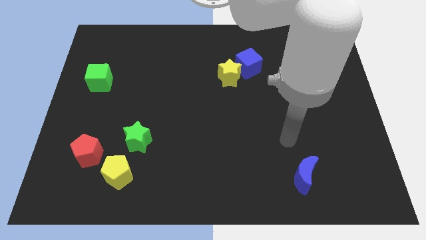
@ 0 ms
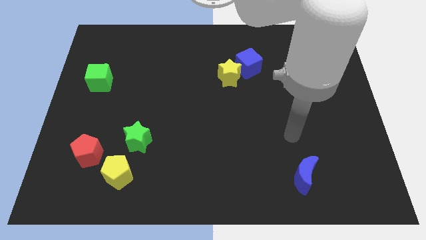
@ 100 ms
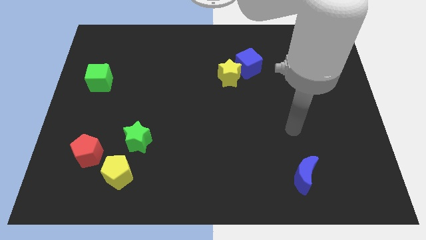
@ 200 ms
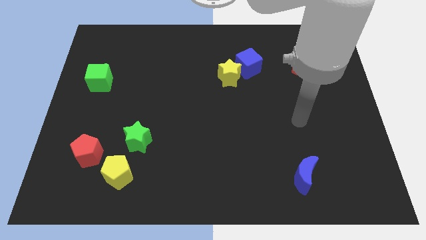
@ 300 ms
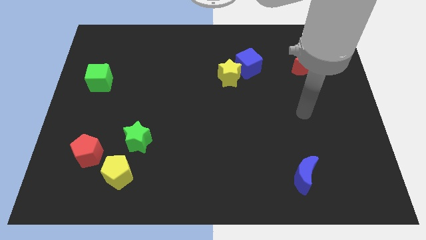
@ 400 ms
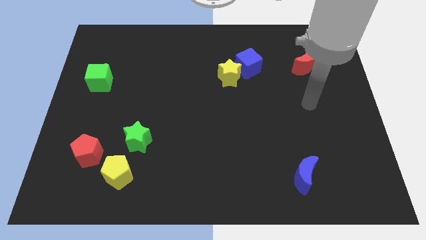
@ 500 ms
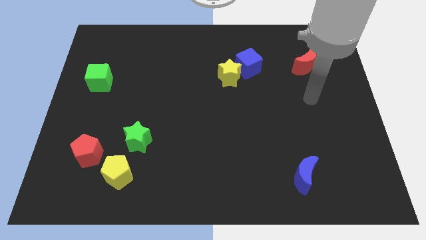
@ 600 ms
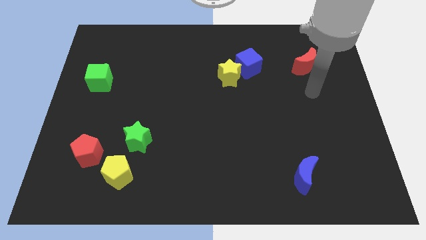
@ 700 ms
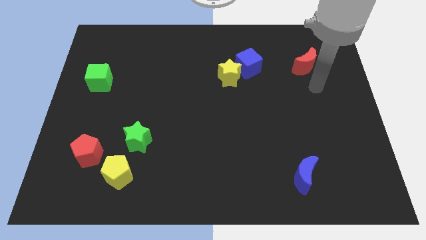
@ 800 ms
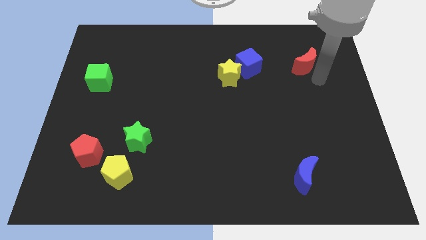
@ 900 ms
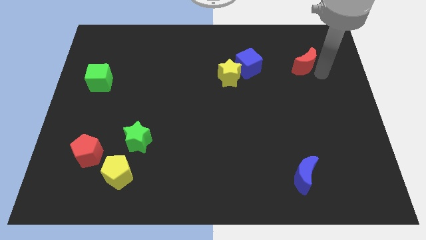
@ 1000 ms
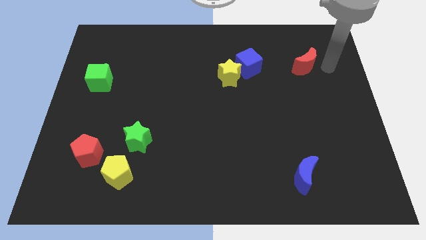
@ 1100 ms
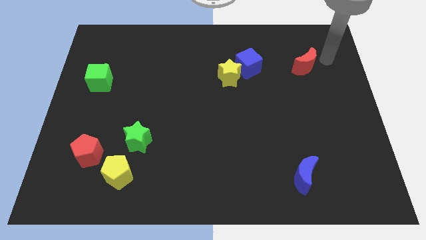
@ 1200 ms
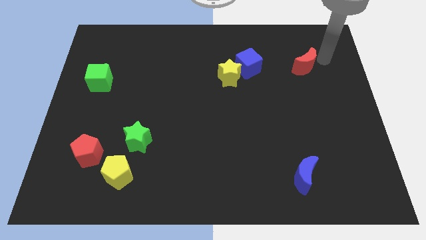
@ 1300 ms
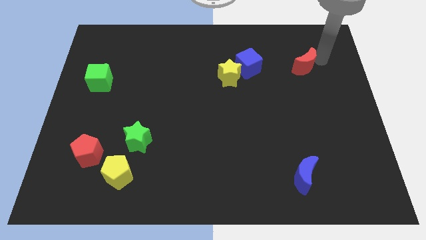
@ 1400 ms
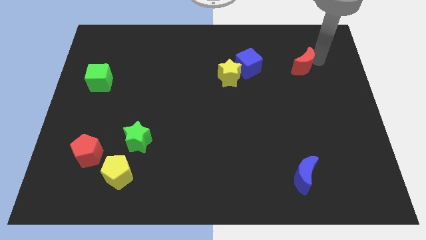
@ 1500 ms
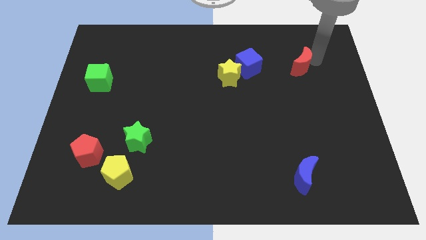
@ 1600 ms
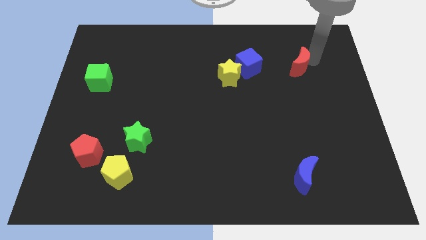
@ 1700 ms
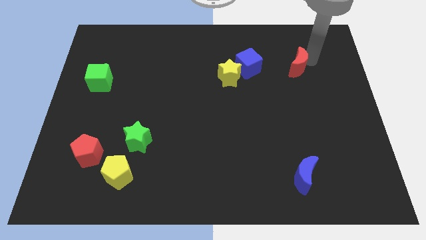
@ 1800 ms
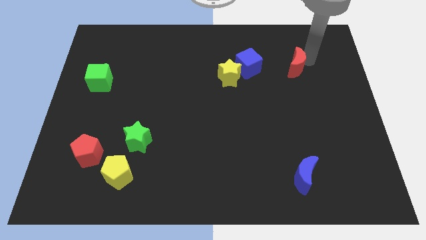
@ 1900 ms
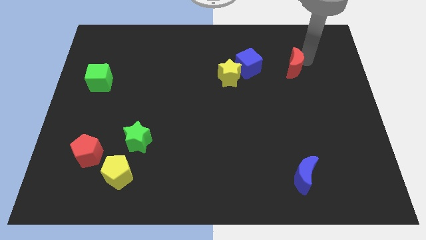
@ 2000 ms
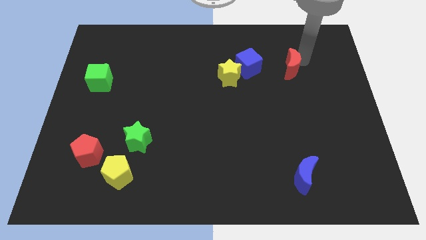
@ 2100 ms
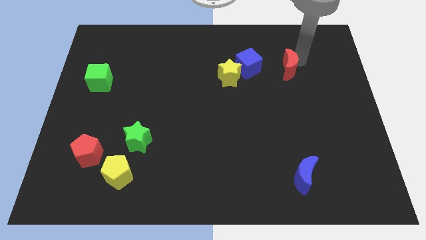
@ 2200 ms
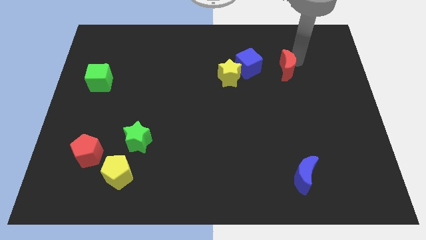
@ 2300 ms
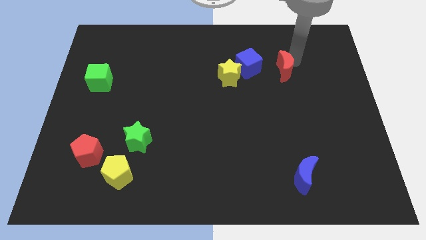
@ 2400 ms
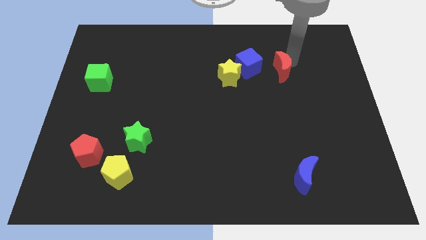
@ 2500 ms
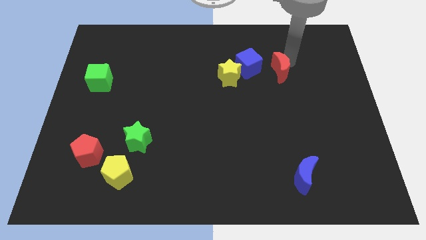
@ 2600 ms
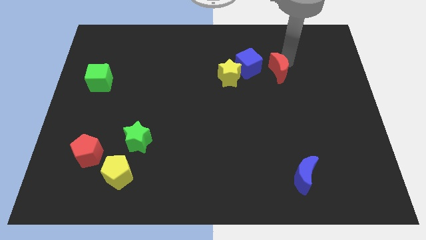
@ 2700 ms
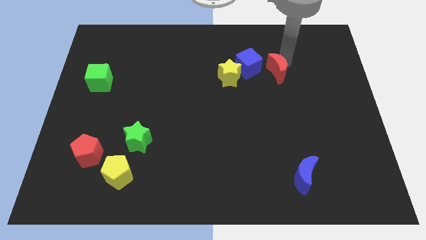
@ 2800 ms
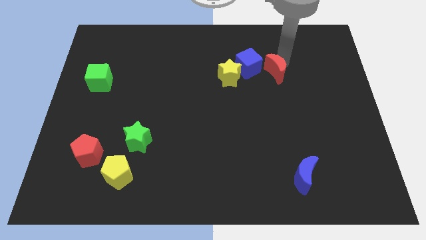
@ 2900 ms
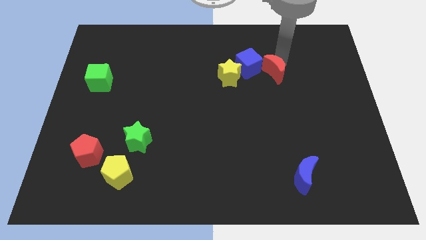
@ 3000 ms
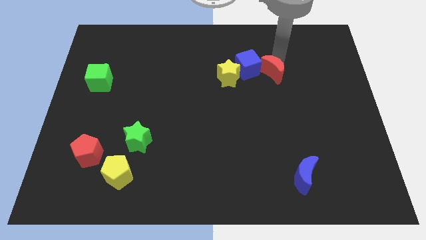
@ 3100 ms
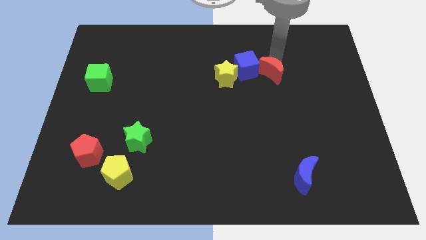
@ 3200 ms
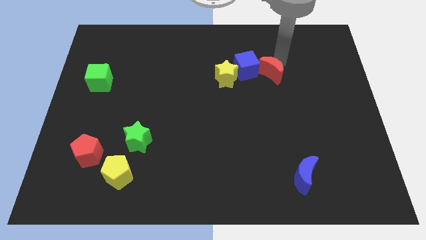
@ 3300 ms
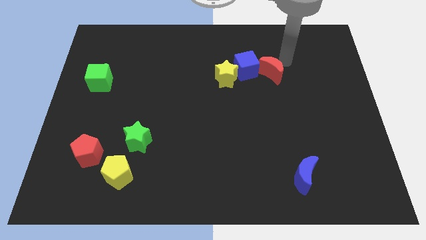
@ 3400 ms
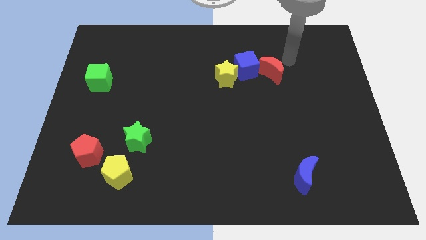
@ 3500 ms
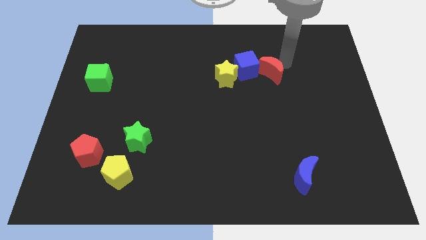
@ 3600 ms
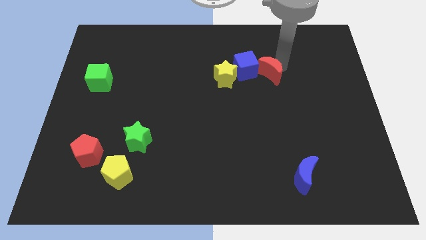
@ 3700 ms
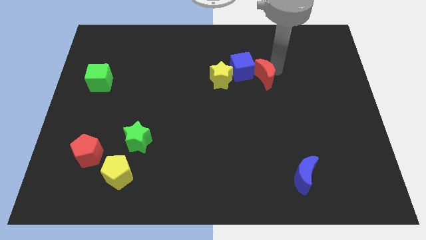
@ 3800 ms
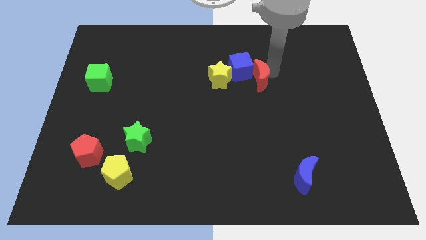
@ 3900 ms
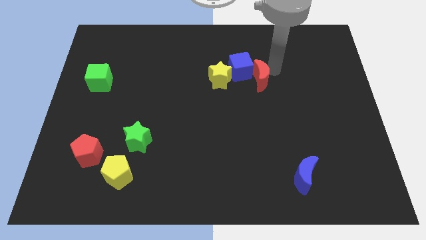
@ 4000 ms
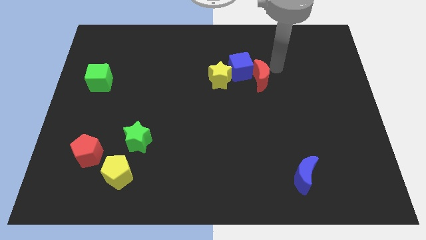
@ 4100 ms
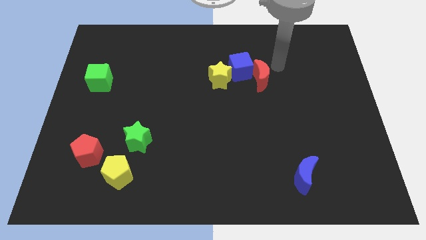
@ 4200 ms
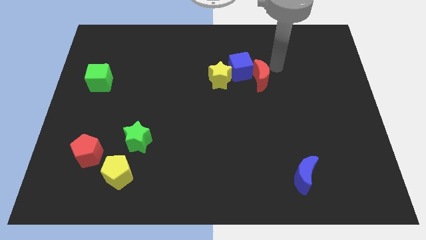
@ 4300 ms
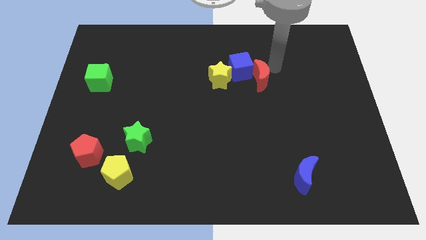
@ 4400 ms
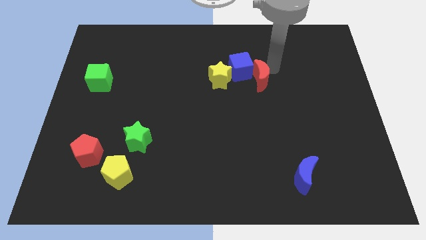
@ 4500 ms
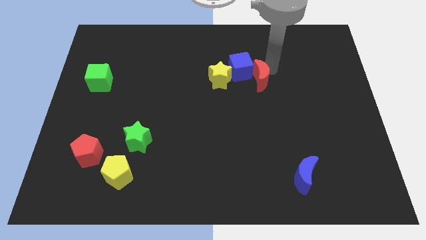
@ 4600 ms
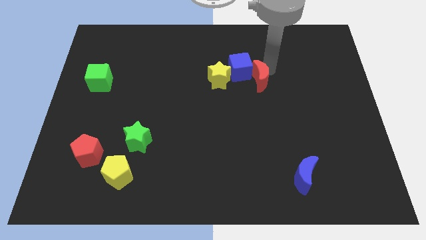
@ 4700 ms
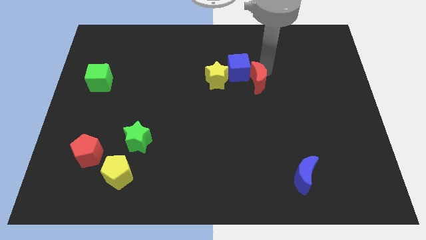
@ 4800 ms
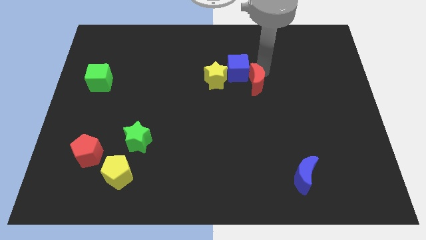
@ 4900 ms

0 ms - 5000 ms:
move the red moon to the center

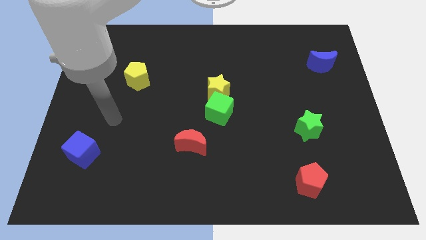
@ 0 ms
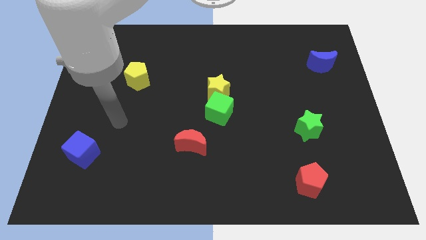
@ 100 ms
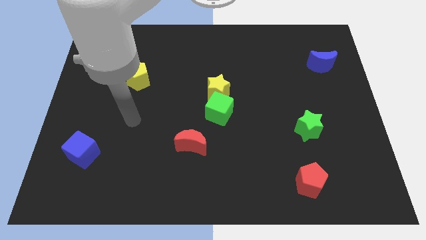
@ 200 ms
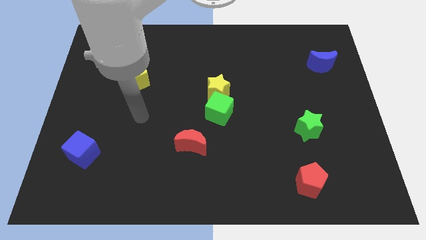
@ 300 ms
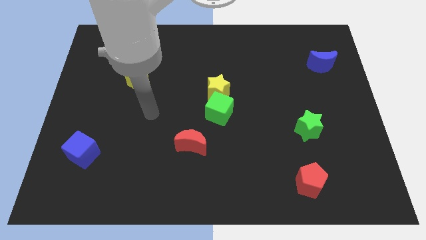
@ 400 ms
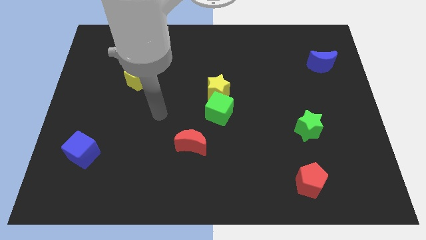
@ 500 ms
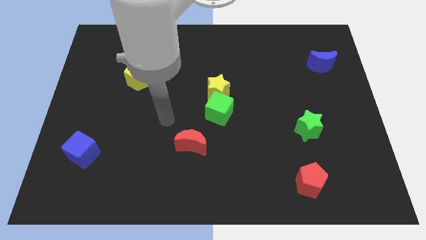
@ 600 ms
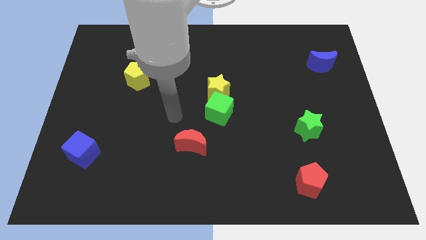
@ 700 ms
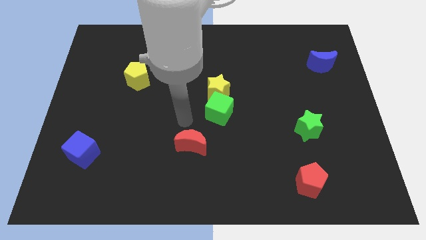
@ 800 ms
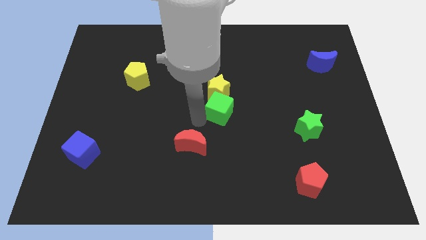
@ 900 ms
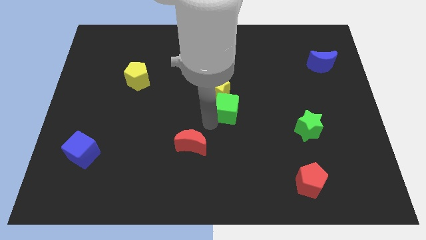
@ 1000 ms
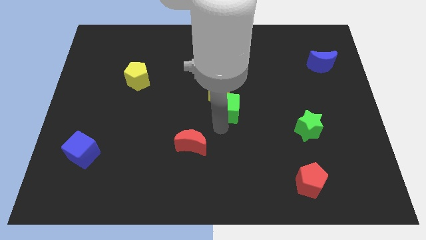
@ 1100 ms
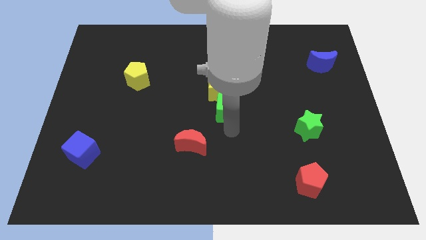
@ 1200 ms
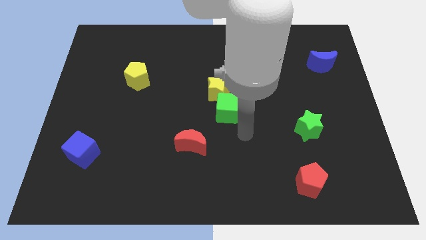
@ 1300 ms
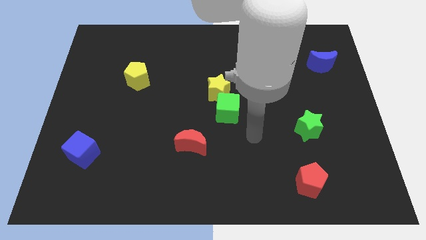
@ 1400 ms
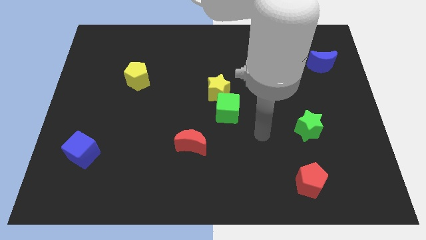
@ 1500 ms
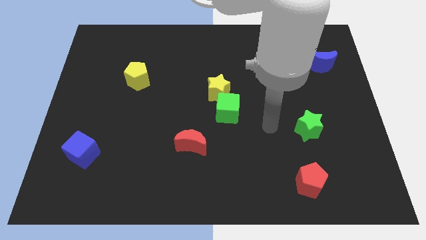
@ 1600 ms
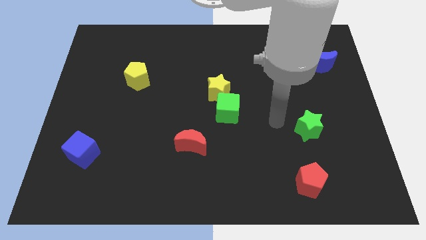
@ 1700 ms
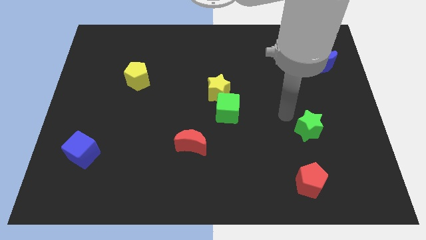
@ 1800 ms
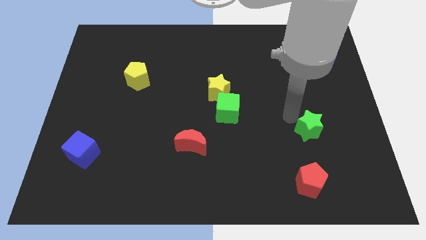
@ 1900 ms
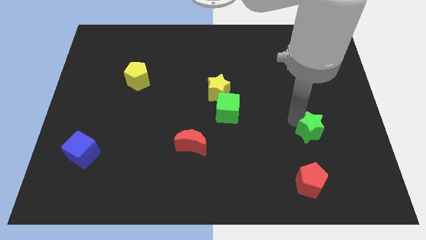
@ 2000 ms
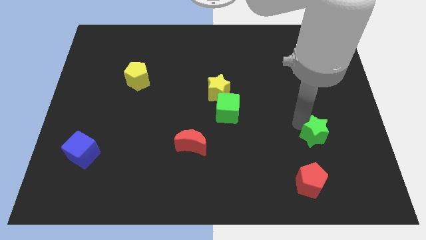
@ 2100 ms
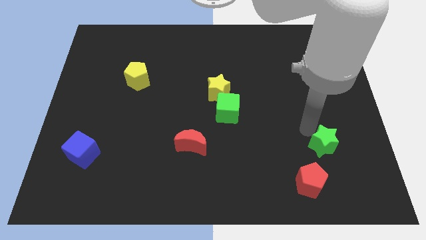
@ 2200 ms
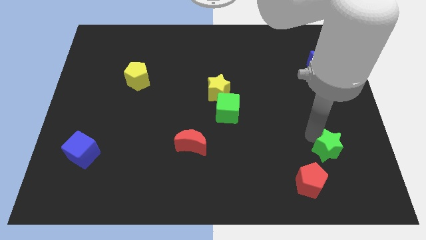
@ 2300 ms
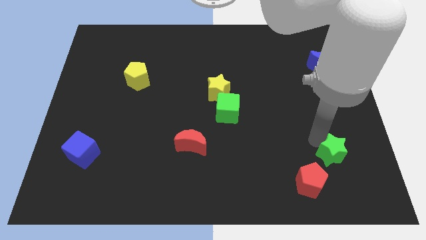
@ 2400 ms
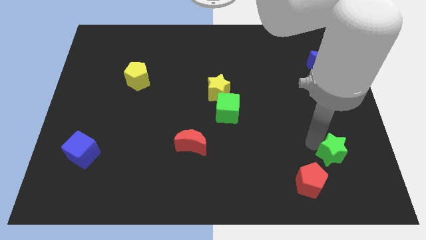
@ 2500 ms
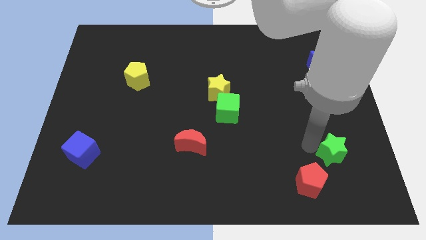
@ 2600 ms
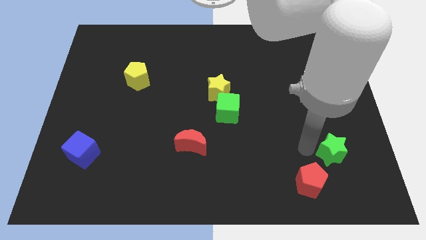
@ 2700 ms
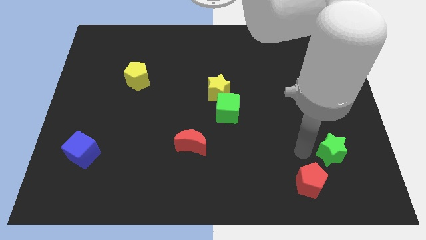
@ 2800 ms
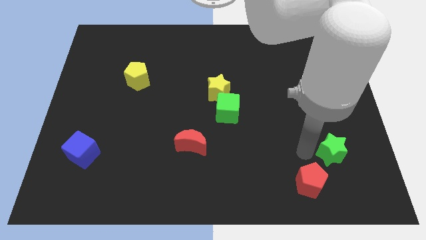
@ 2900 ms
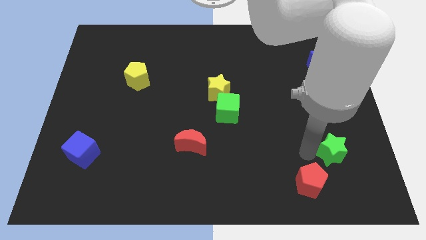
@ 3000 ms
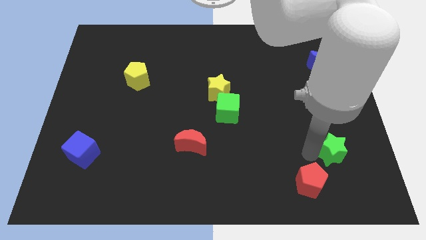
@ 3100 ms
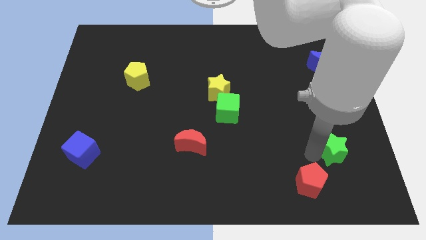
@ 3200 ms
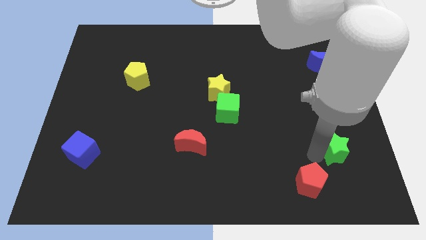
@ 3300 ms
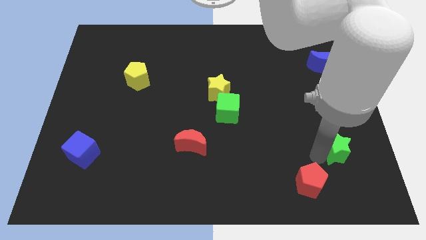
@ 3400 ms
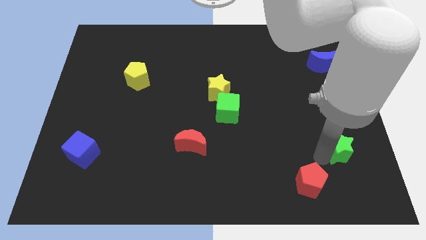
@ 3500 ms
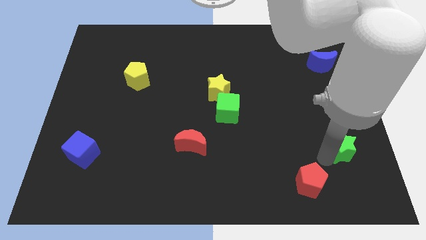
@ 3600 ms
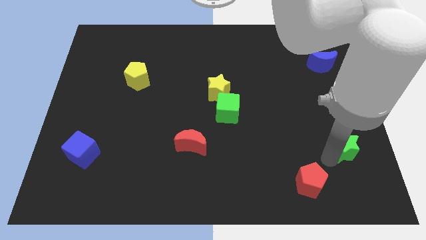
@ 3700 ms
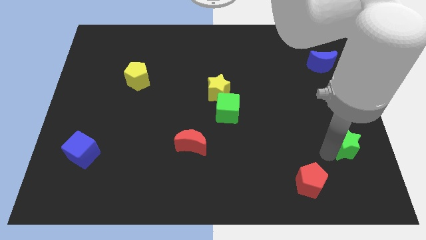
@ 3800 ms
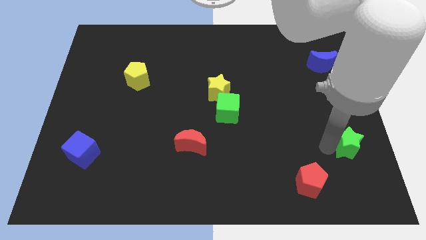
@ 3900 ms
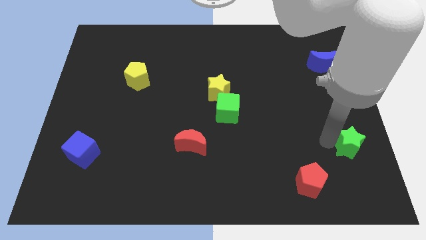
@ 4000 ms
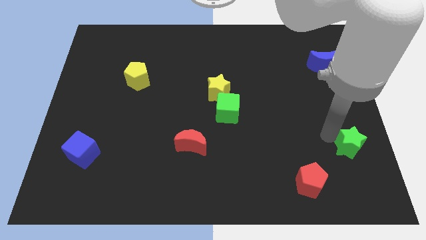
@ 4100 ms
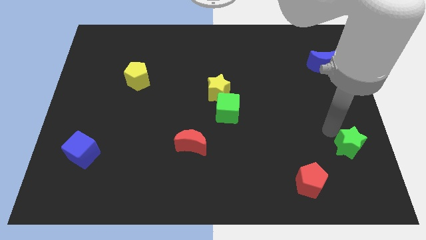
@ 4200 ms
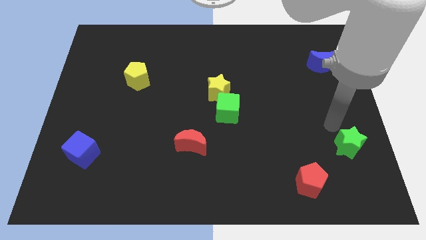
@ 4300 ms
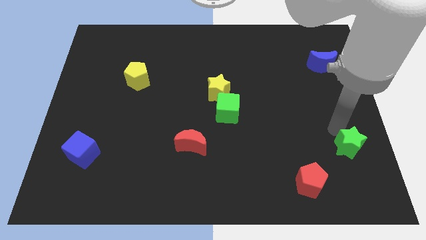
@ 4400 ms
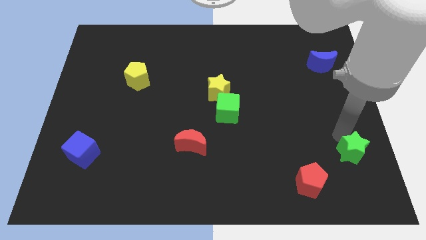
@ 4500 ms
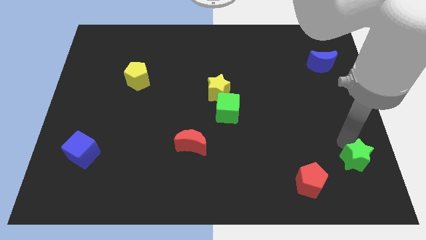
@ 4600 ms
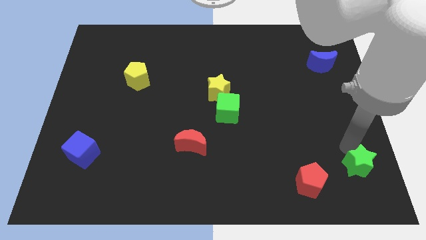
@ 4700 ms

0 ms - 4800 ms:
push the green star to the lower right corner
